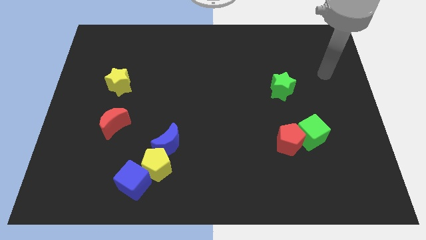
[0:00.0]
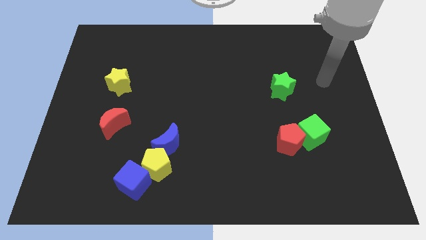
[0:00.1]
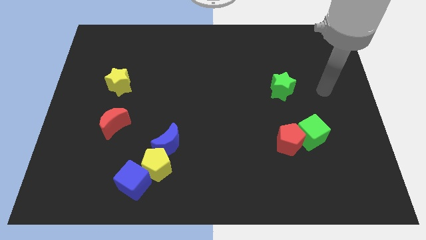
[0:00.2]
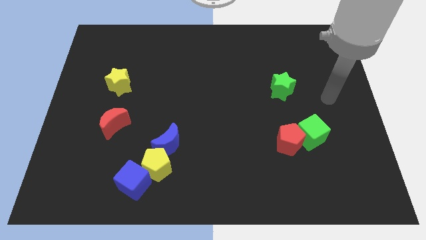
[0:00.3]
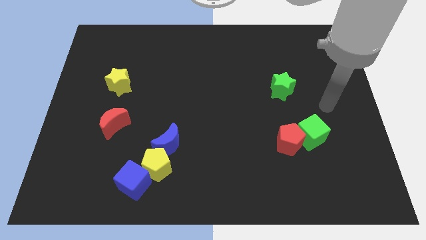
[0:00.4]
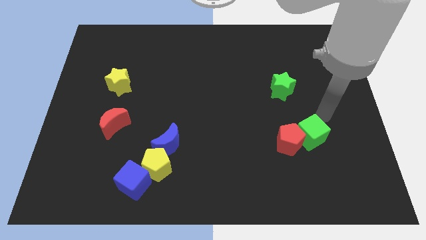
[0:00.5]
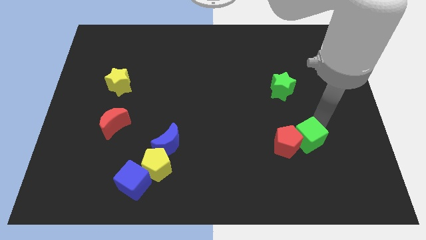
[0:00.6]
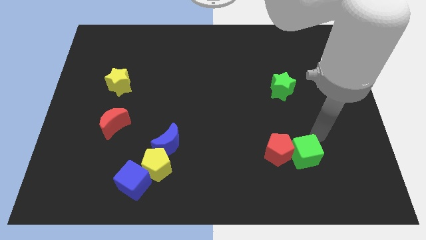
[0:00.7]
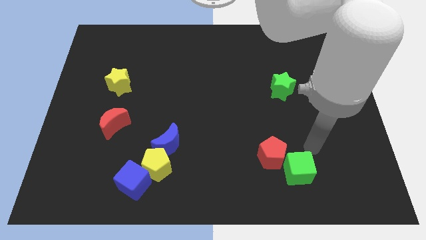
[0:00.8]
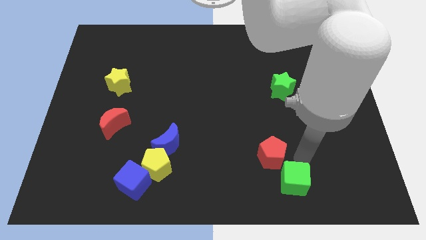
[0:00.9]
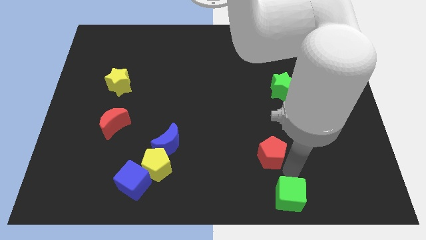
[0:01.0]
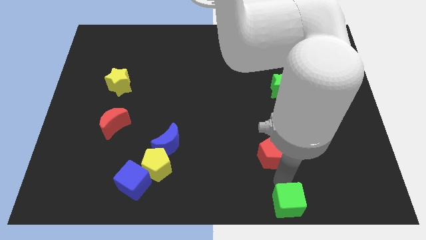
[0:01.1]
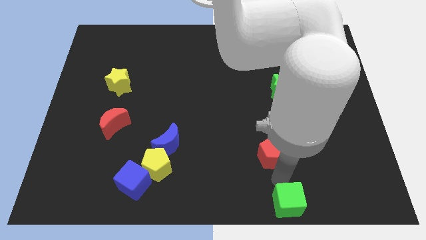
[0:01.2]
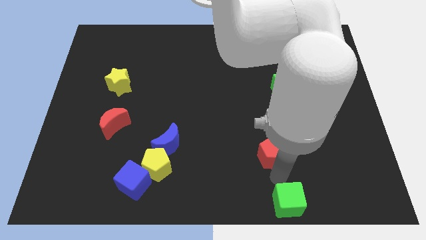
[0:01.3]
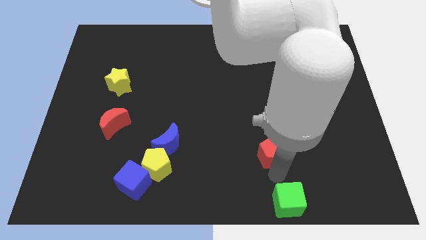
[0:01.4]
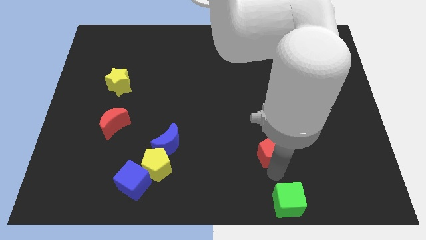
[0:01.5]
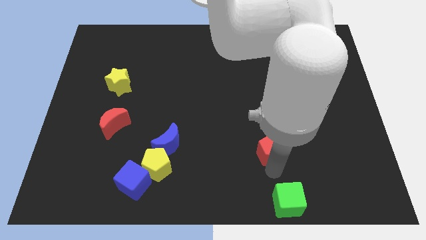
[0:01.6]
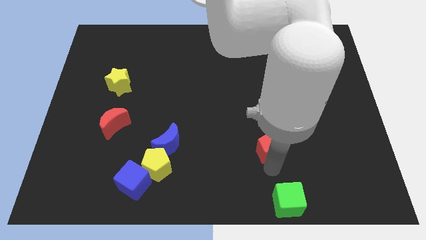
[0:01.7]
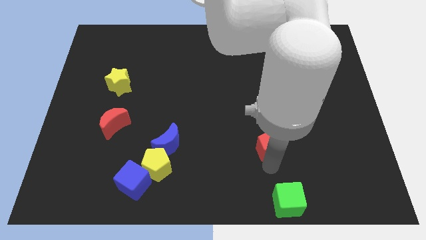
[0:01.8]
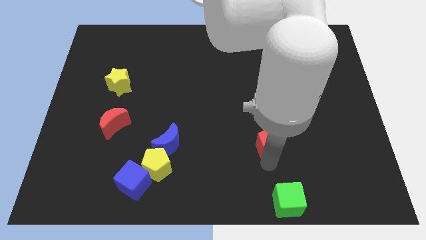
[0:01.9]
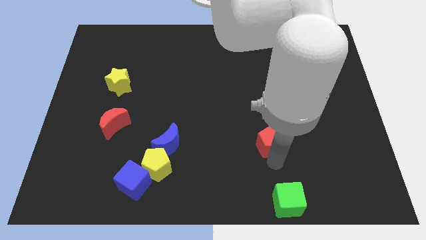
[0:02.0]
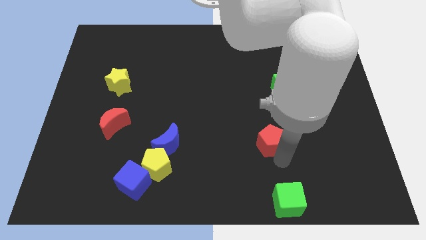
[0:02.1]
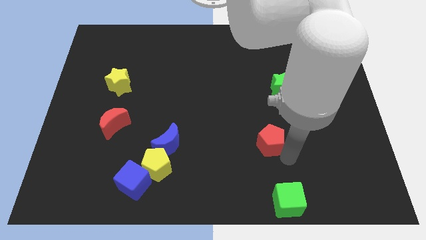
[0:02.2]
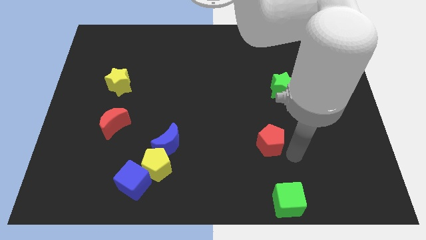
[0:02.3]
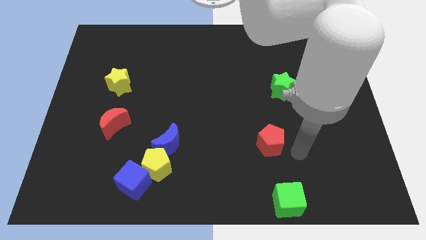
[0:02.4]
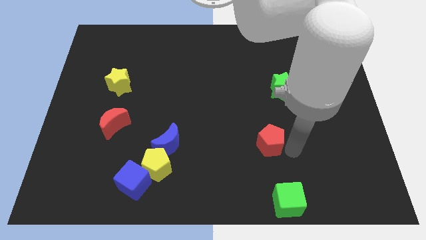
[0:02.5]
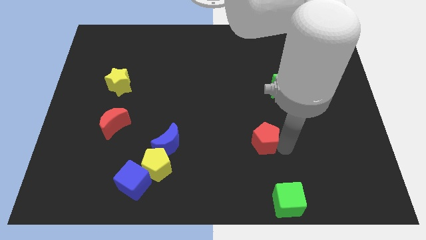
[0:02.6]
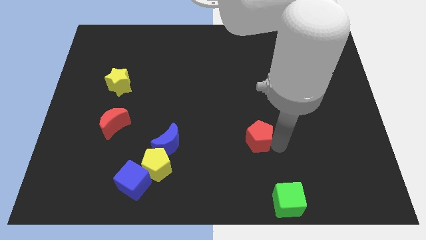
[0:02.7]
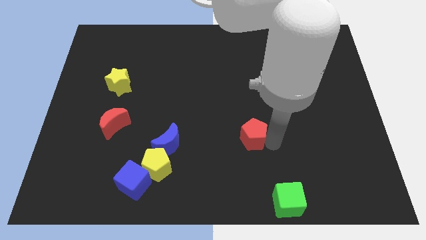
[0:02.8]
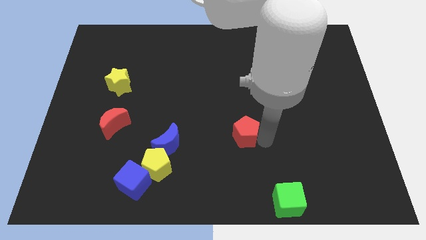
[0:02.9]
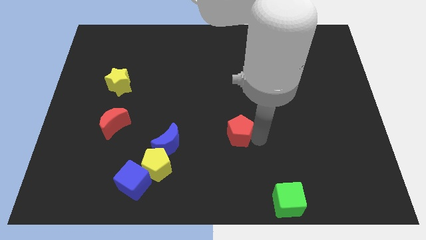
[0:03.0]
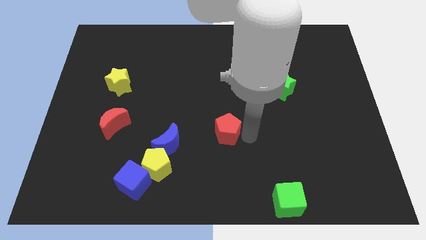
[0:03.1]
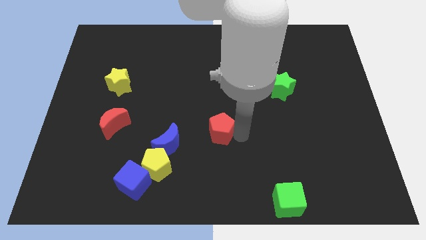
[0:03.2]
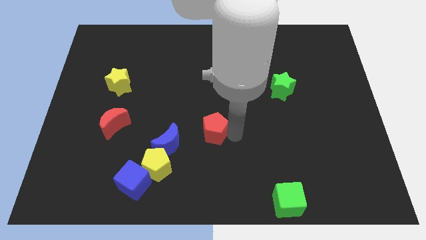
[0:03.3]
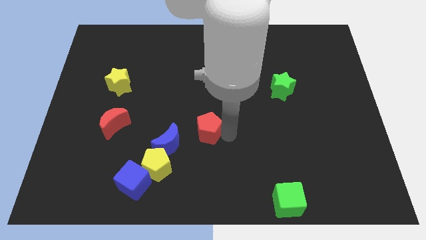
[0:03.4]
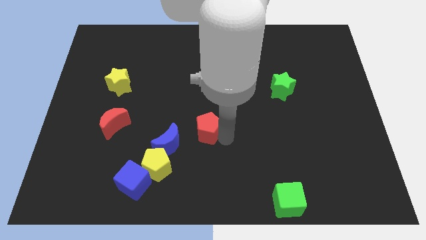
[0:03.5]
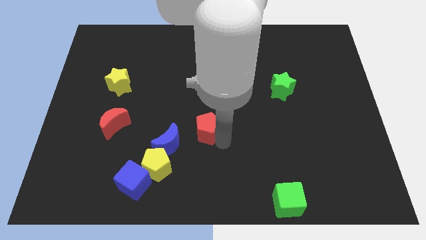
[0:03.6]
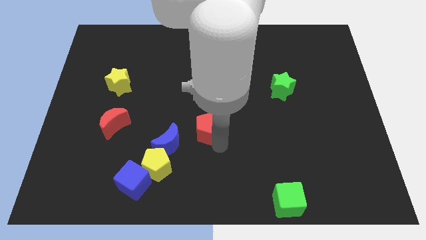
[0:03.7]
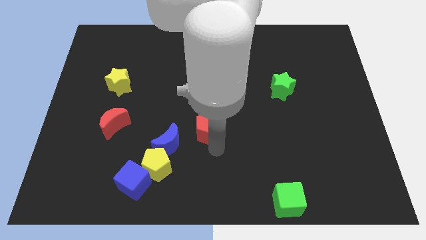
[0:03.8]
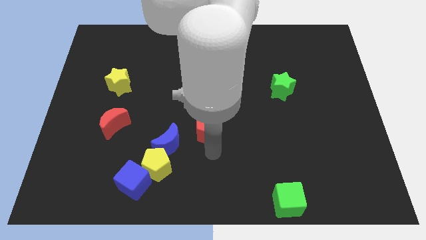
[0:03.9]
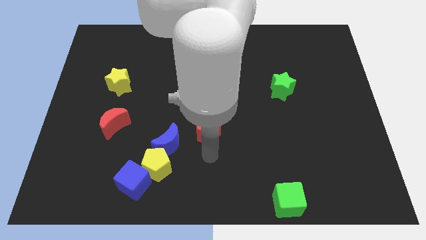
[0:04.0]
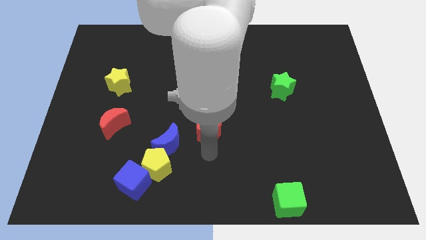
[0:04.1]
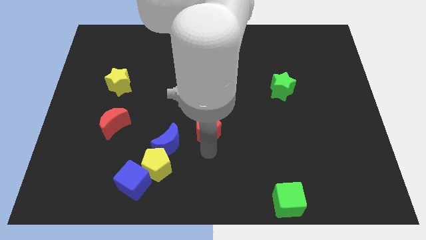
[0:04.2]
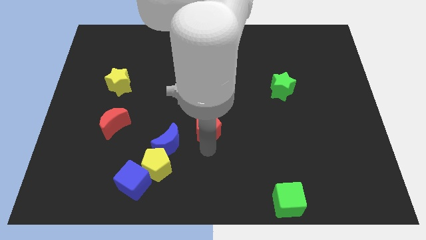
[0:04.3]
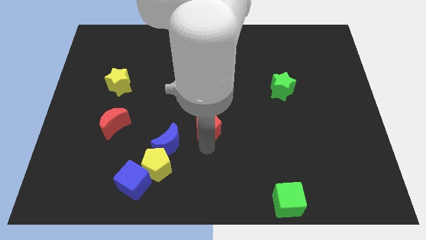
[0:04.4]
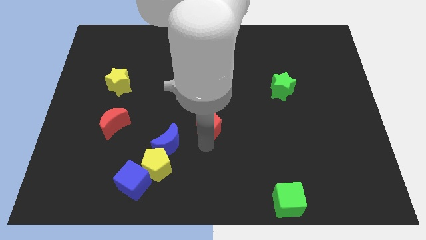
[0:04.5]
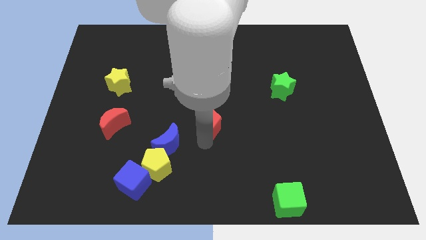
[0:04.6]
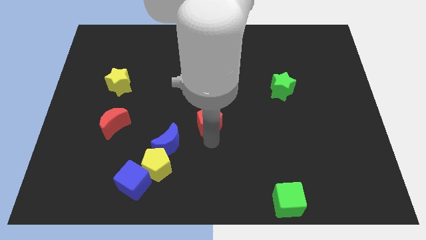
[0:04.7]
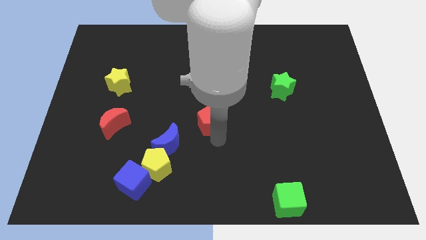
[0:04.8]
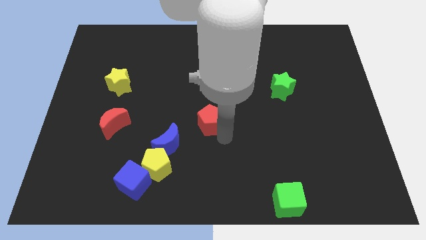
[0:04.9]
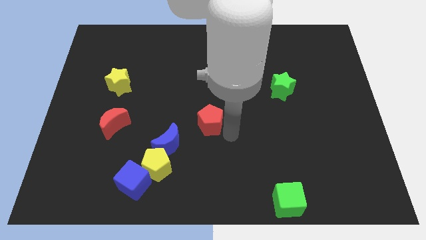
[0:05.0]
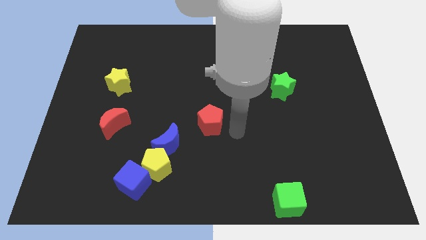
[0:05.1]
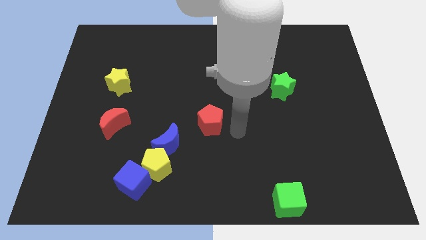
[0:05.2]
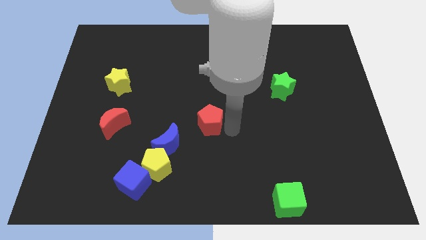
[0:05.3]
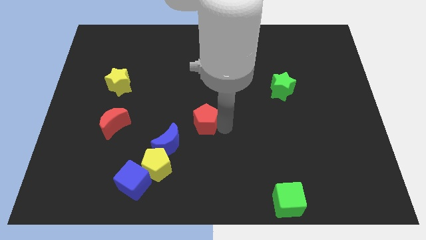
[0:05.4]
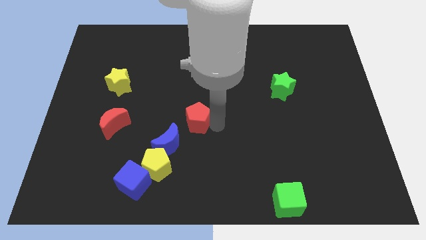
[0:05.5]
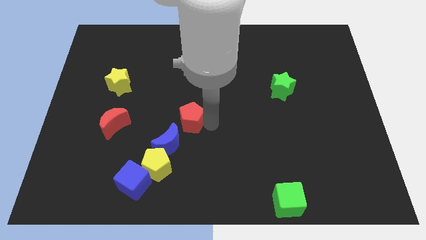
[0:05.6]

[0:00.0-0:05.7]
push the red pentagon to the top of the blue moon
